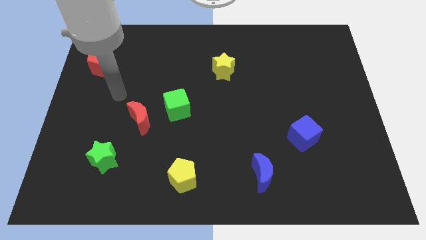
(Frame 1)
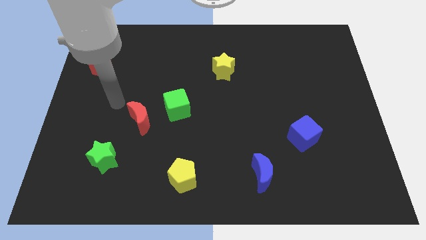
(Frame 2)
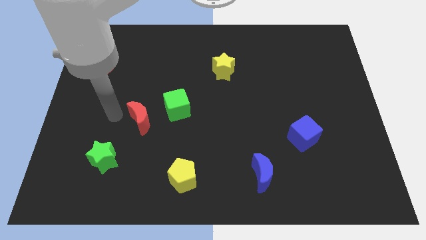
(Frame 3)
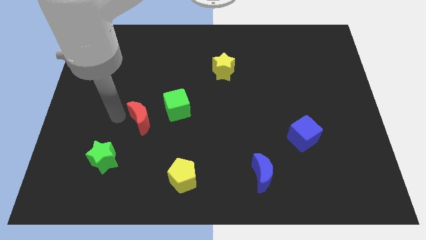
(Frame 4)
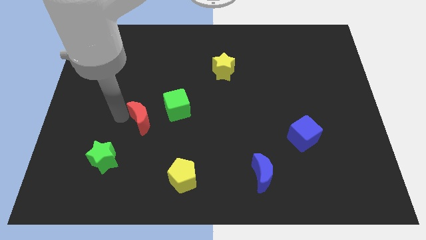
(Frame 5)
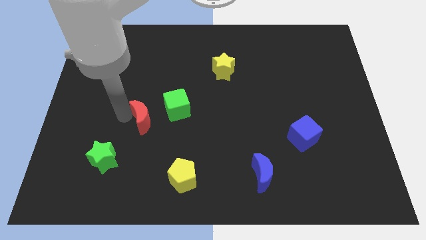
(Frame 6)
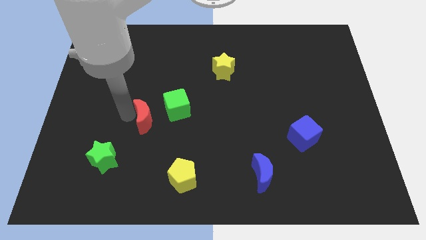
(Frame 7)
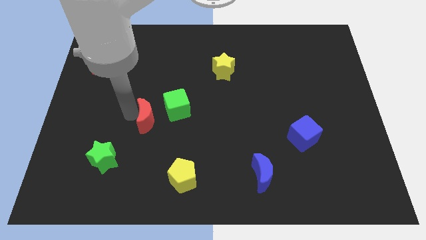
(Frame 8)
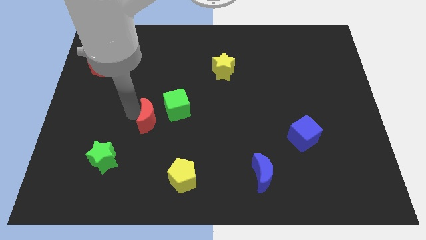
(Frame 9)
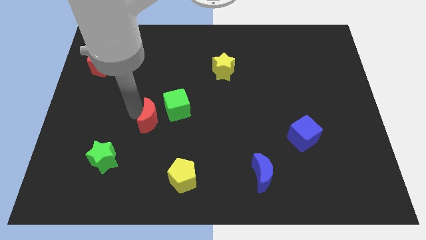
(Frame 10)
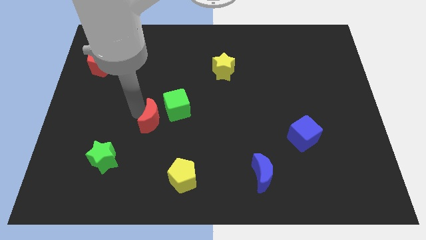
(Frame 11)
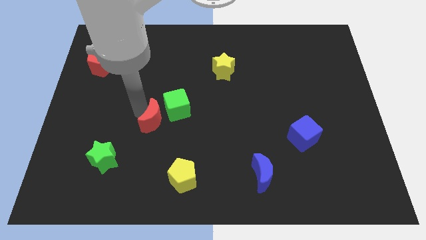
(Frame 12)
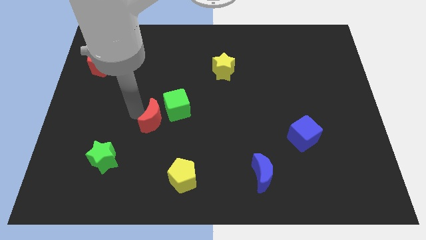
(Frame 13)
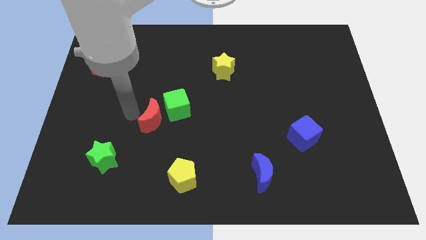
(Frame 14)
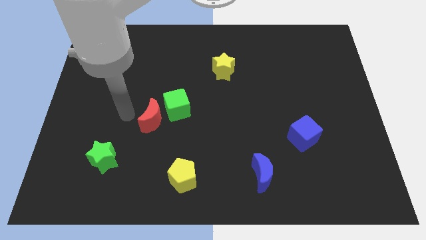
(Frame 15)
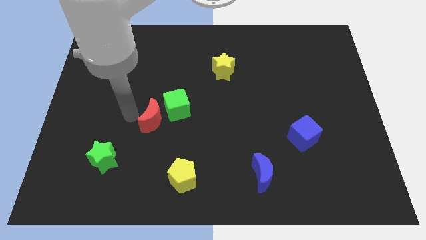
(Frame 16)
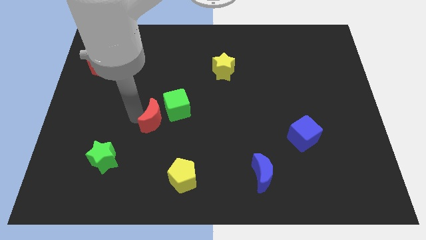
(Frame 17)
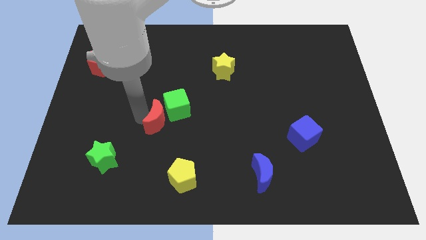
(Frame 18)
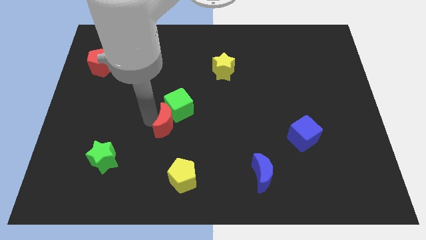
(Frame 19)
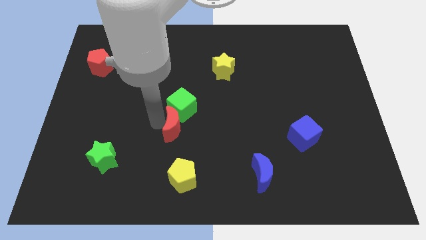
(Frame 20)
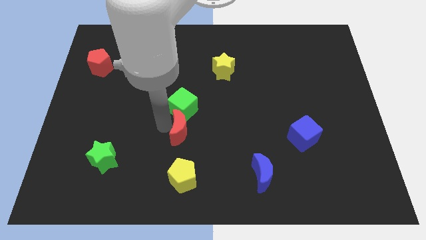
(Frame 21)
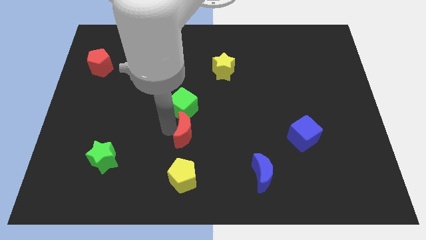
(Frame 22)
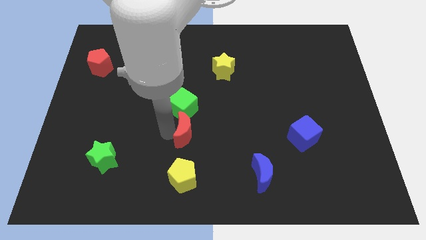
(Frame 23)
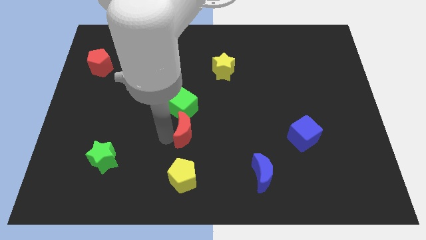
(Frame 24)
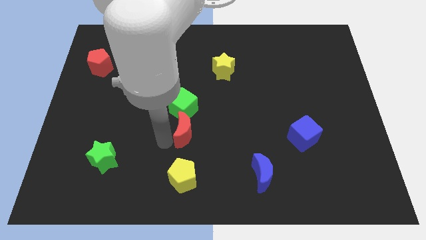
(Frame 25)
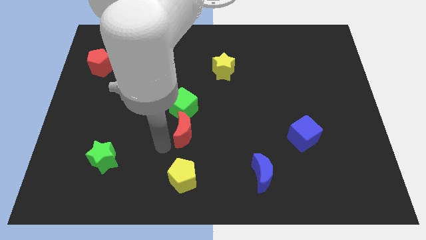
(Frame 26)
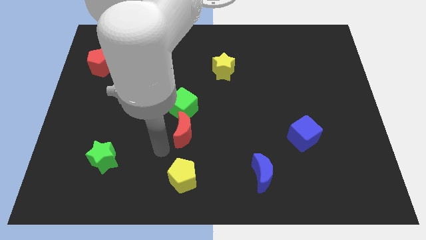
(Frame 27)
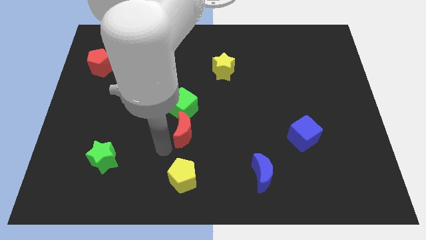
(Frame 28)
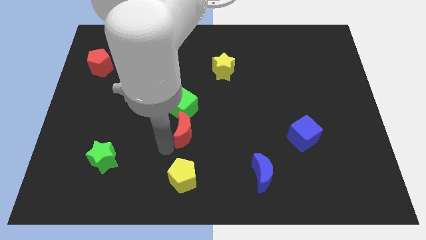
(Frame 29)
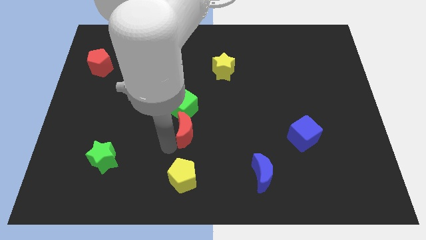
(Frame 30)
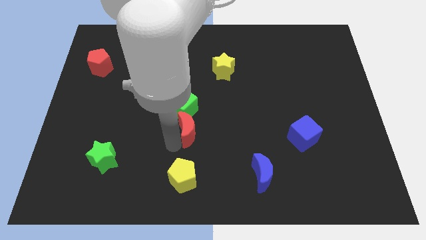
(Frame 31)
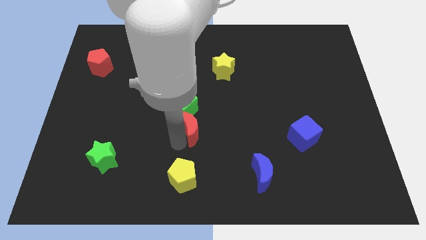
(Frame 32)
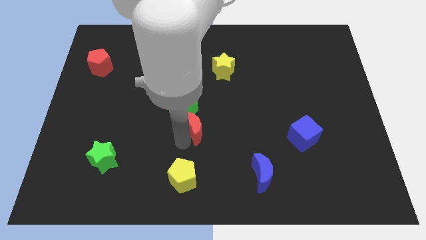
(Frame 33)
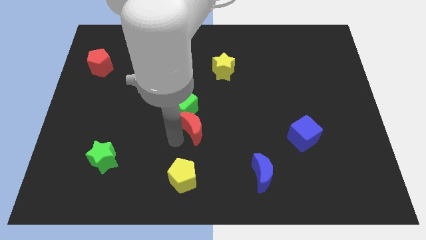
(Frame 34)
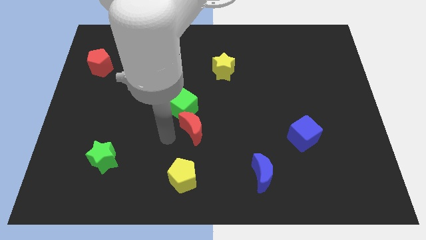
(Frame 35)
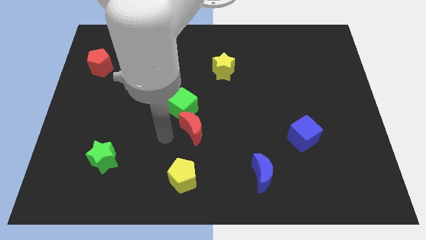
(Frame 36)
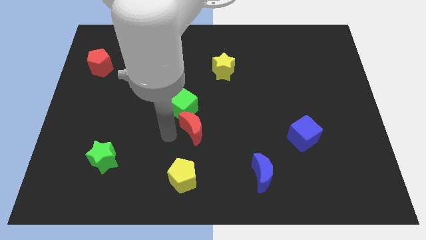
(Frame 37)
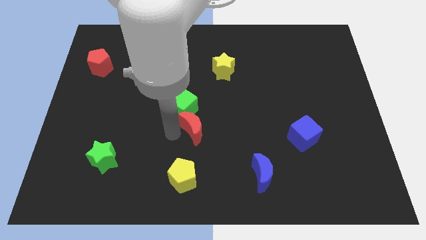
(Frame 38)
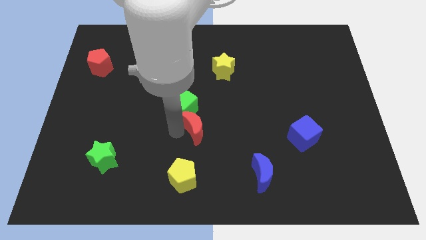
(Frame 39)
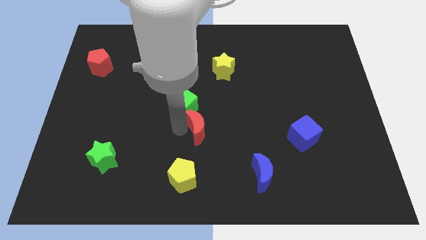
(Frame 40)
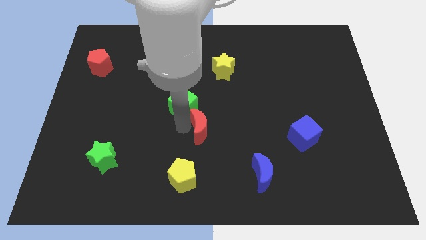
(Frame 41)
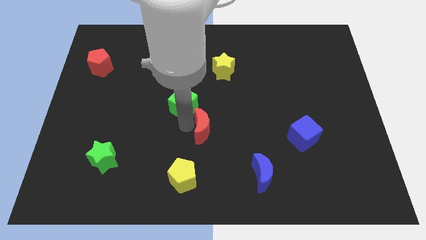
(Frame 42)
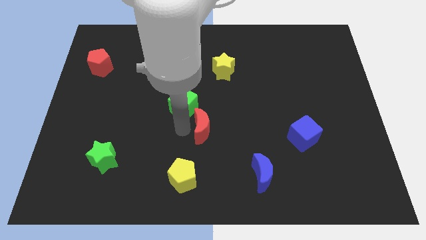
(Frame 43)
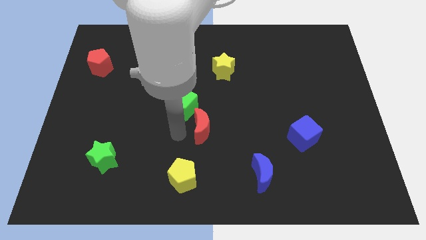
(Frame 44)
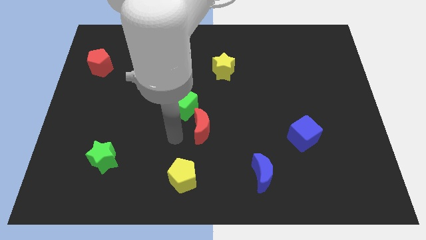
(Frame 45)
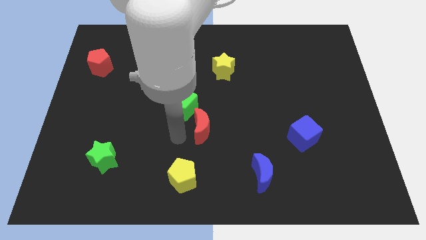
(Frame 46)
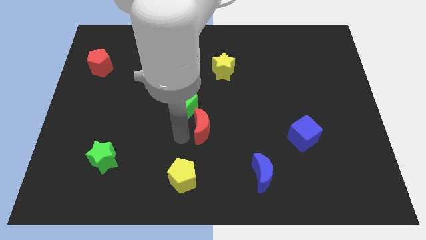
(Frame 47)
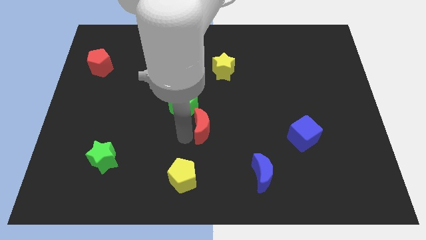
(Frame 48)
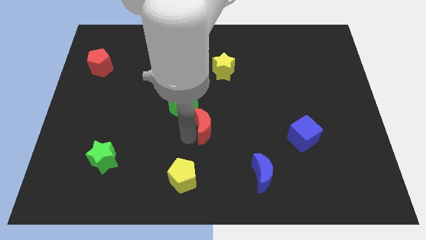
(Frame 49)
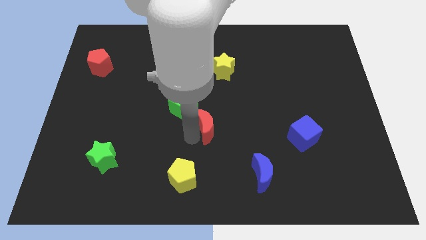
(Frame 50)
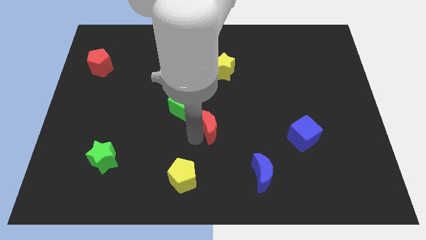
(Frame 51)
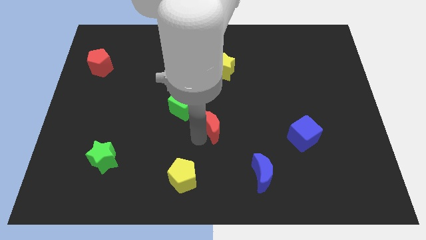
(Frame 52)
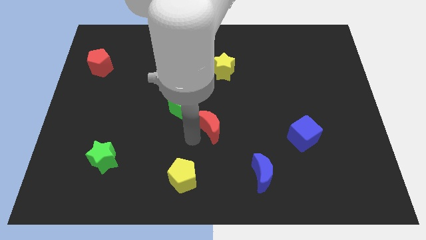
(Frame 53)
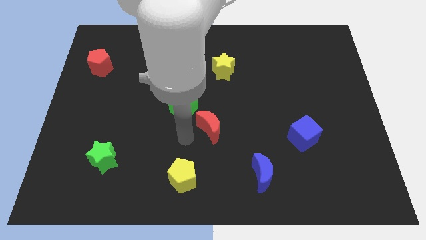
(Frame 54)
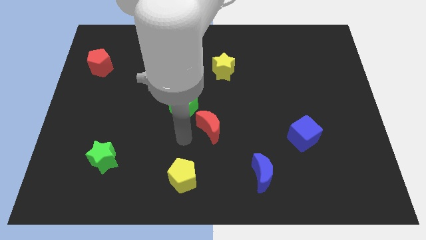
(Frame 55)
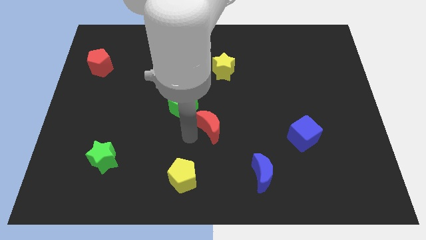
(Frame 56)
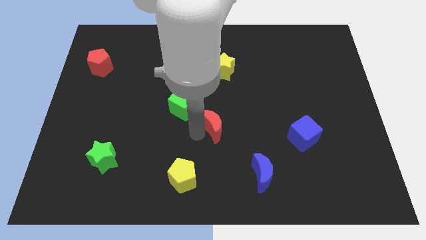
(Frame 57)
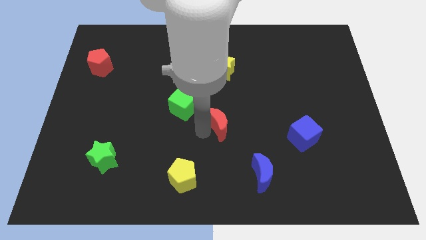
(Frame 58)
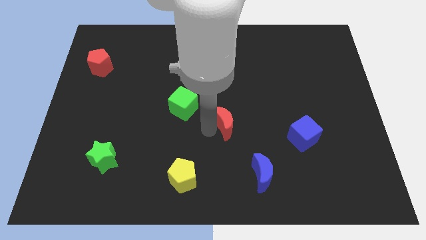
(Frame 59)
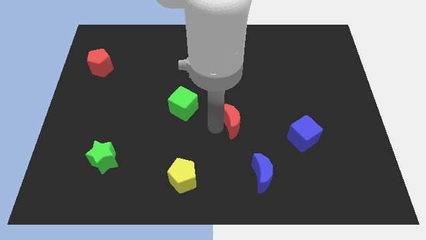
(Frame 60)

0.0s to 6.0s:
push the red moon to the right

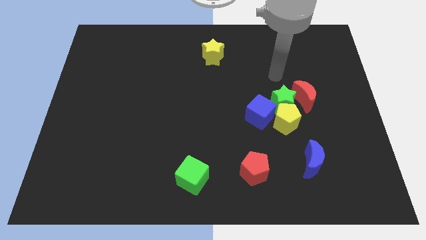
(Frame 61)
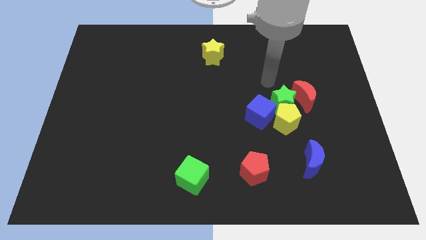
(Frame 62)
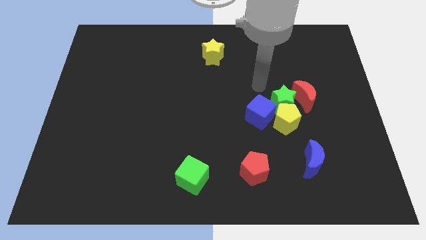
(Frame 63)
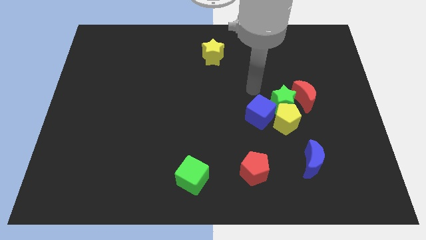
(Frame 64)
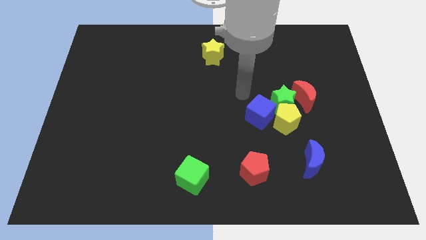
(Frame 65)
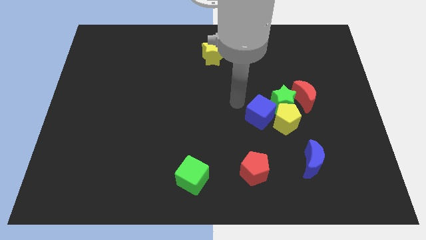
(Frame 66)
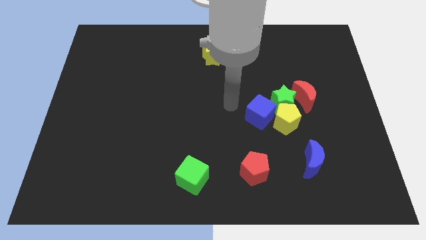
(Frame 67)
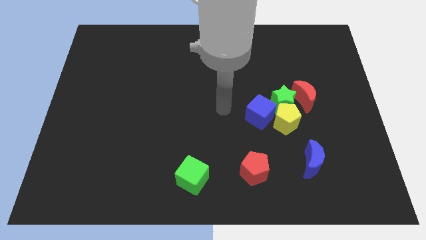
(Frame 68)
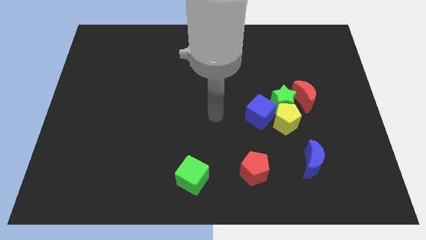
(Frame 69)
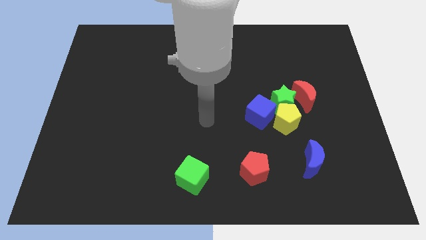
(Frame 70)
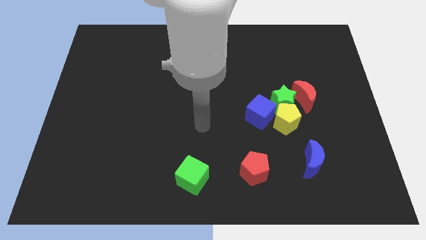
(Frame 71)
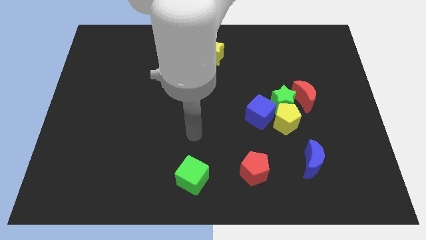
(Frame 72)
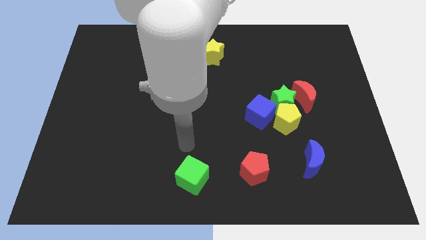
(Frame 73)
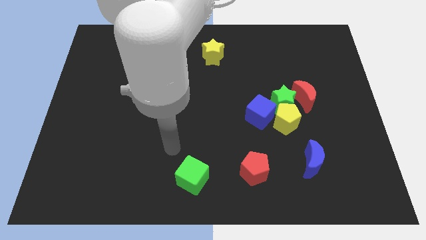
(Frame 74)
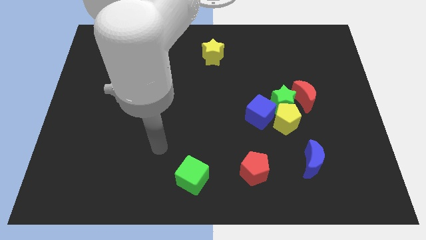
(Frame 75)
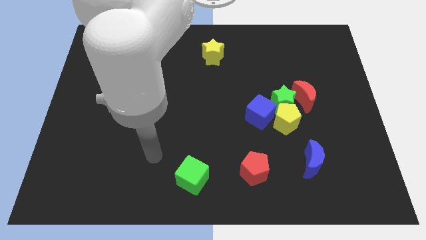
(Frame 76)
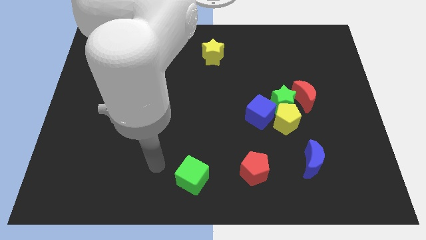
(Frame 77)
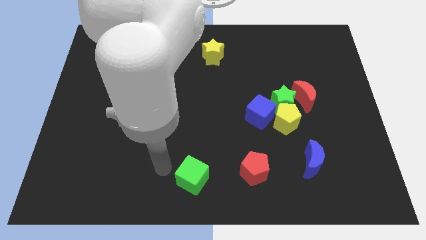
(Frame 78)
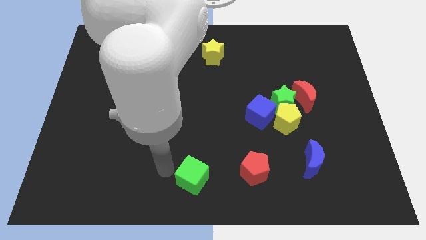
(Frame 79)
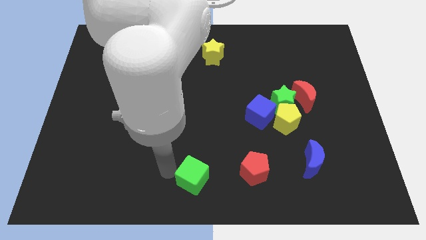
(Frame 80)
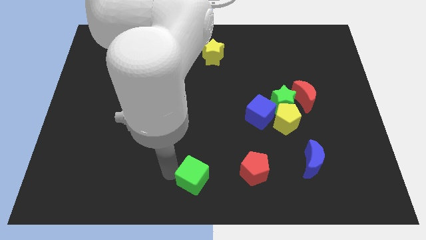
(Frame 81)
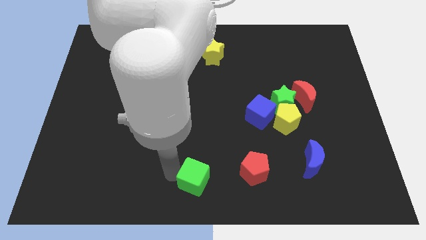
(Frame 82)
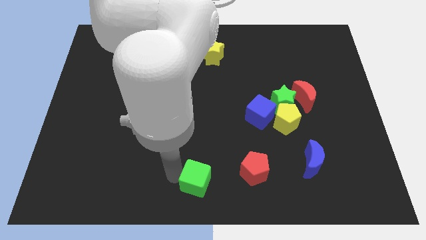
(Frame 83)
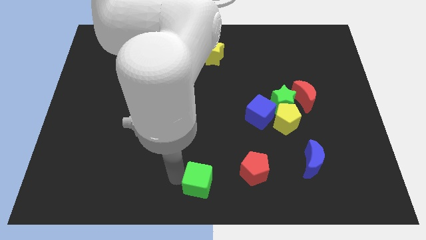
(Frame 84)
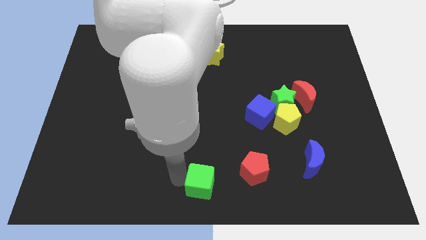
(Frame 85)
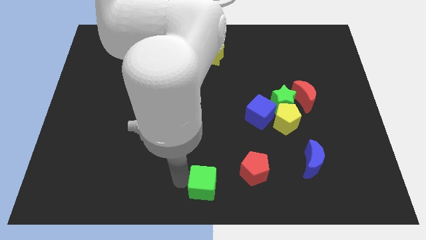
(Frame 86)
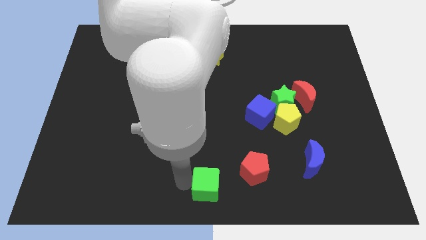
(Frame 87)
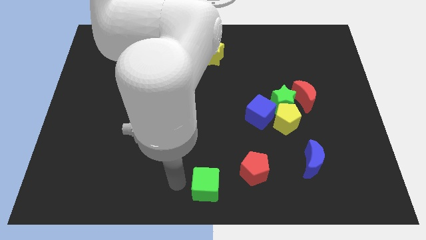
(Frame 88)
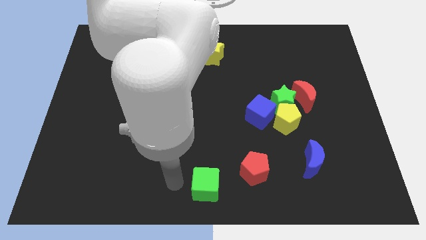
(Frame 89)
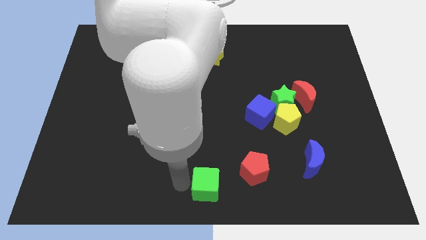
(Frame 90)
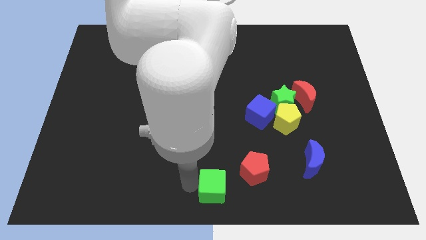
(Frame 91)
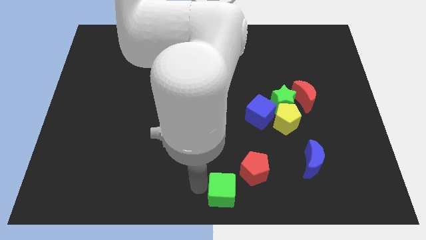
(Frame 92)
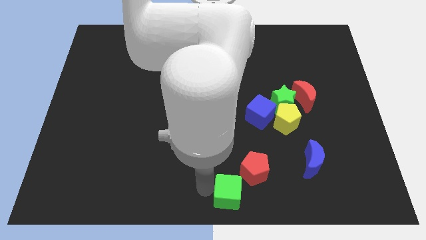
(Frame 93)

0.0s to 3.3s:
slide the green cube to the right slightly
